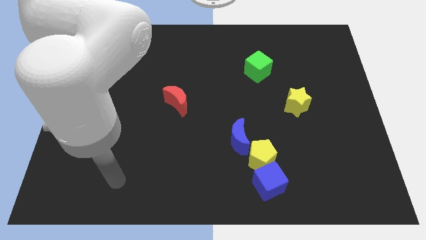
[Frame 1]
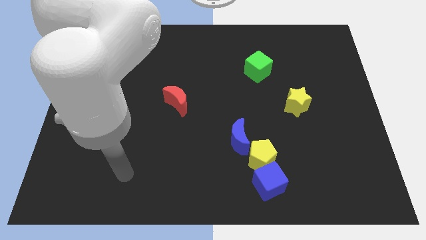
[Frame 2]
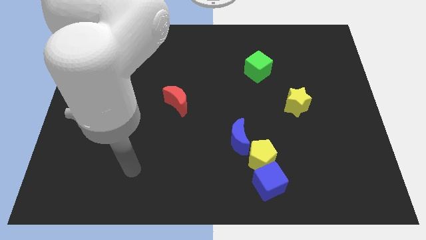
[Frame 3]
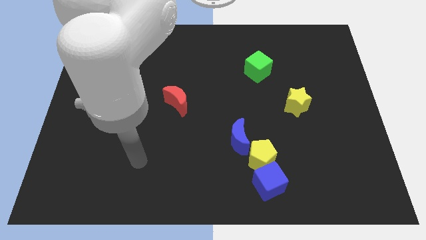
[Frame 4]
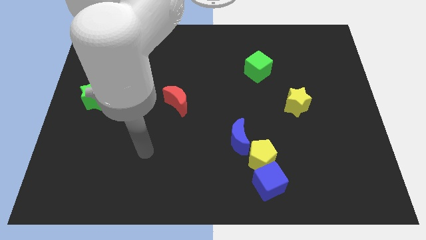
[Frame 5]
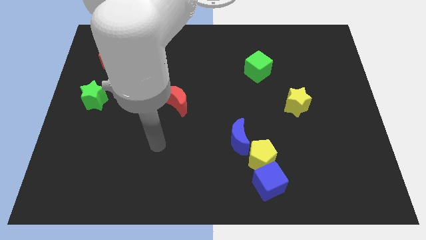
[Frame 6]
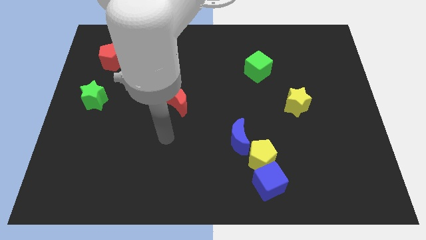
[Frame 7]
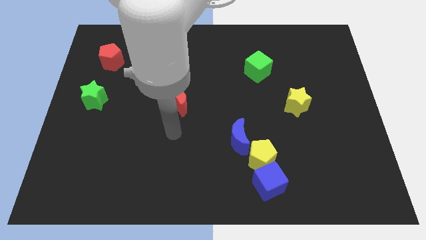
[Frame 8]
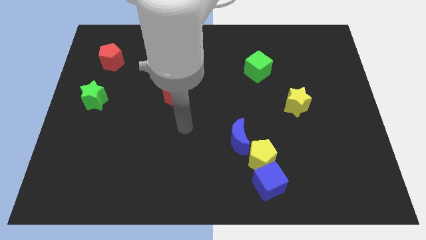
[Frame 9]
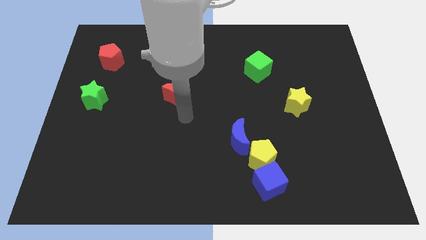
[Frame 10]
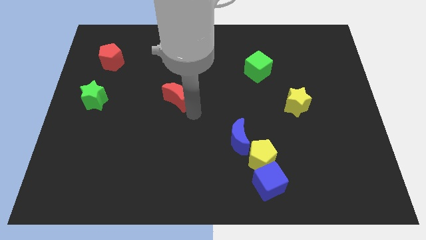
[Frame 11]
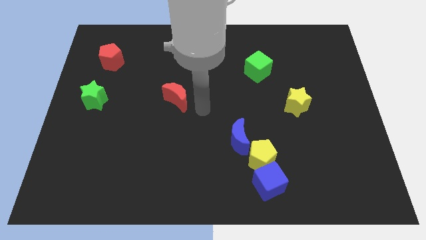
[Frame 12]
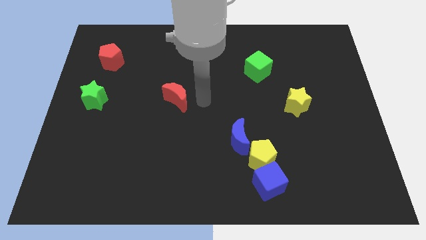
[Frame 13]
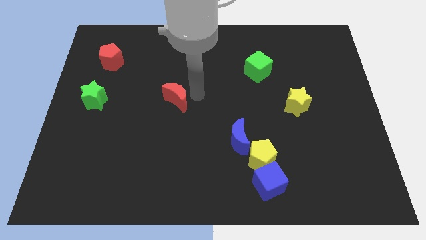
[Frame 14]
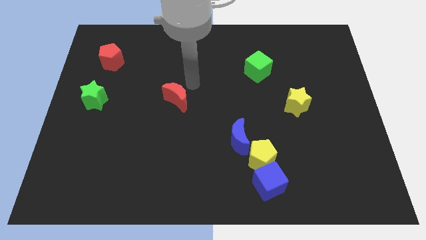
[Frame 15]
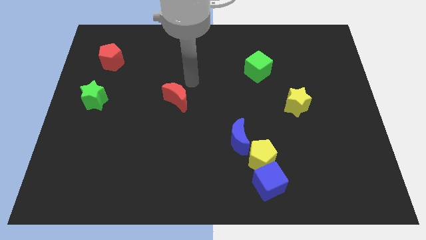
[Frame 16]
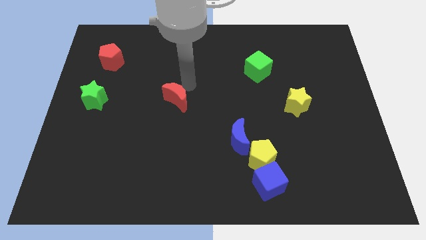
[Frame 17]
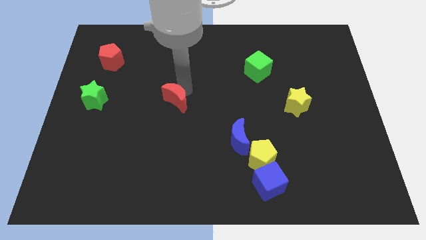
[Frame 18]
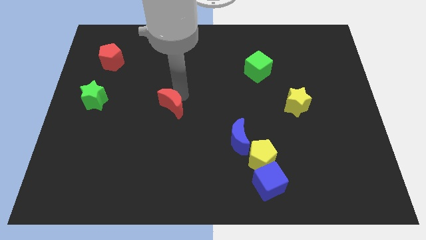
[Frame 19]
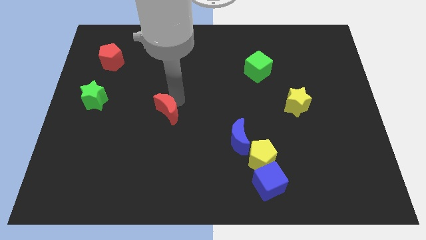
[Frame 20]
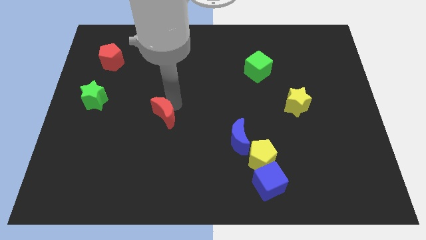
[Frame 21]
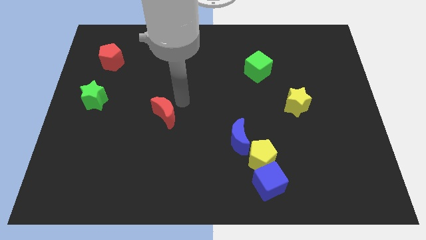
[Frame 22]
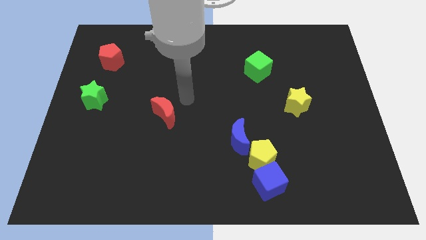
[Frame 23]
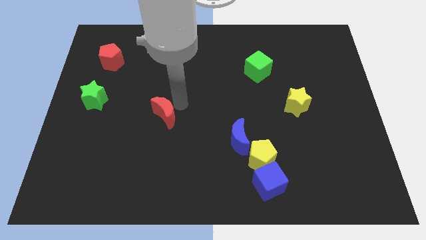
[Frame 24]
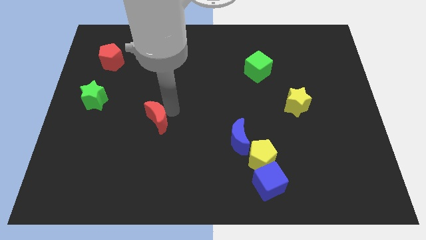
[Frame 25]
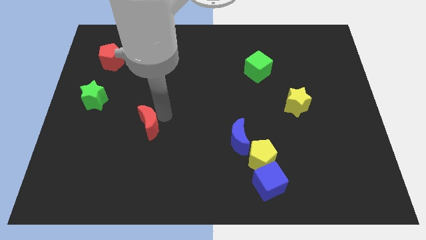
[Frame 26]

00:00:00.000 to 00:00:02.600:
push the red moon down and left a little

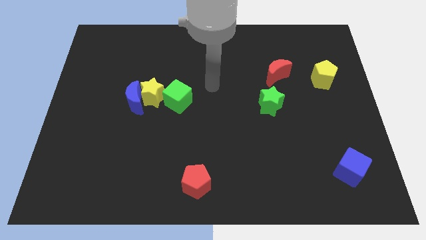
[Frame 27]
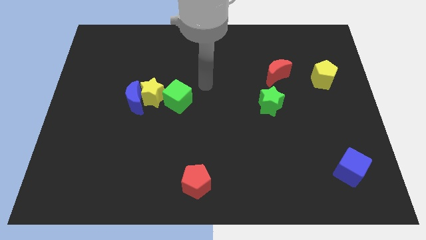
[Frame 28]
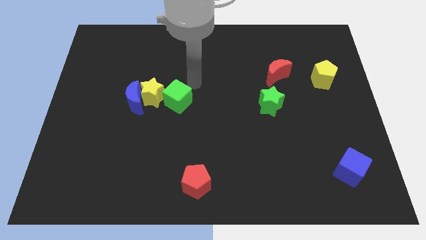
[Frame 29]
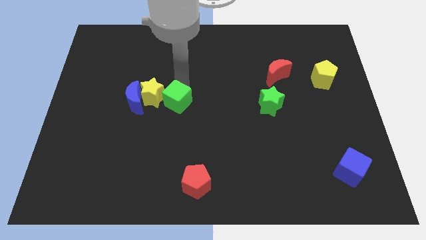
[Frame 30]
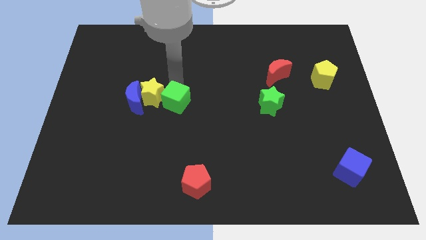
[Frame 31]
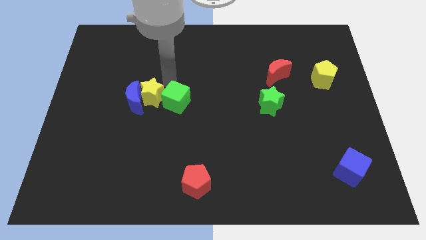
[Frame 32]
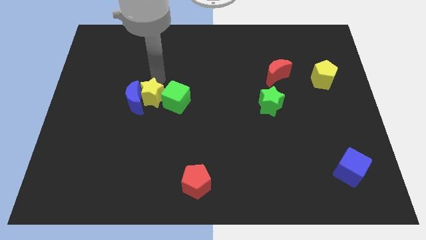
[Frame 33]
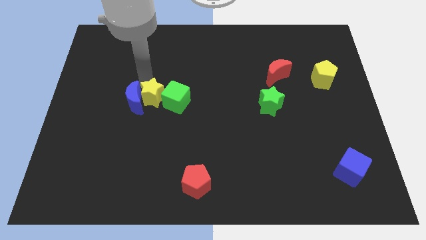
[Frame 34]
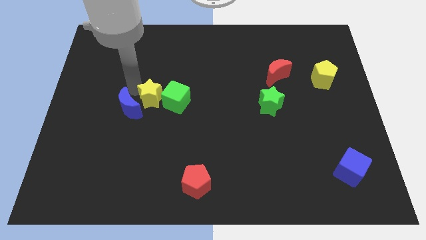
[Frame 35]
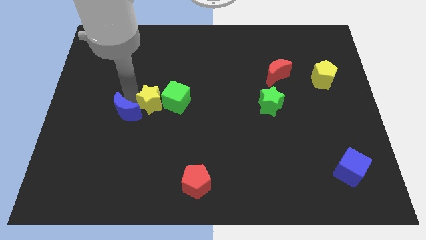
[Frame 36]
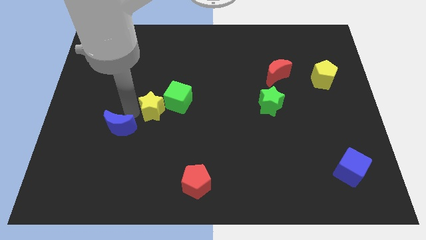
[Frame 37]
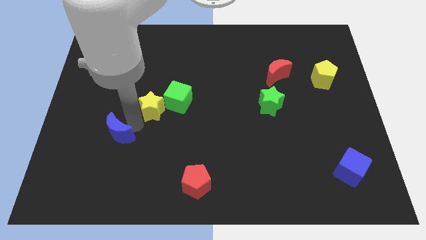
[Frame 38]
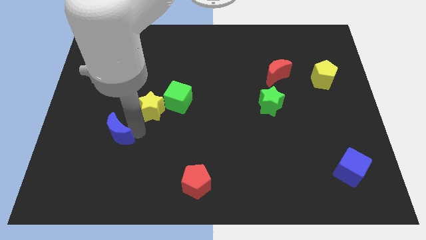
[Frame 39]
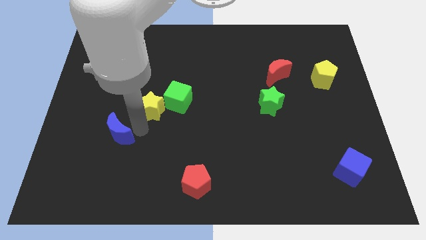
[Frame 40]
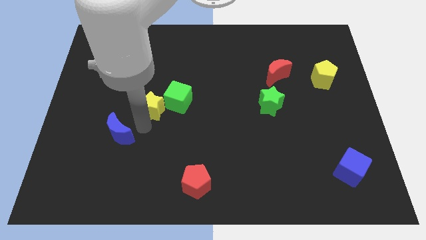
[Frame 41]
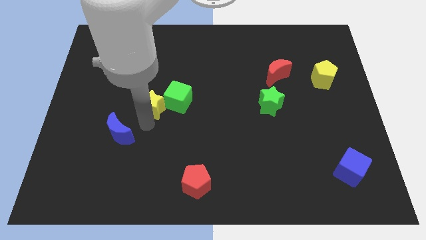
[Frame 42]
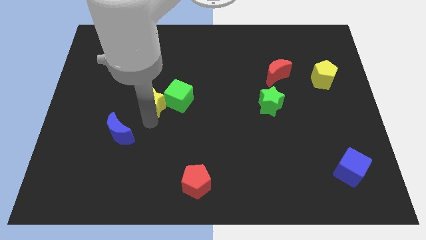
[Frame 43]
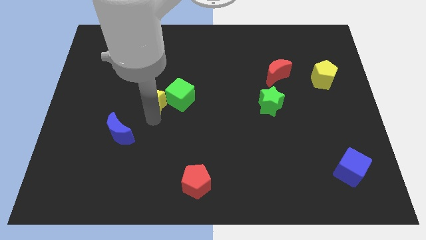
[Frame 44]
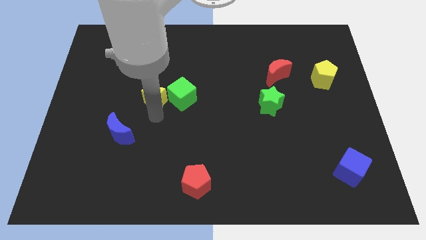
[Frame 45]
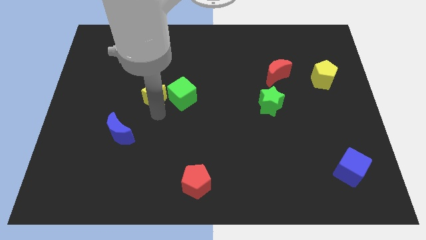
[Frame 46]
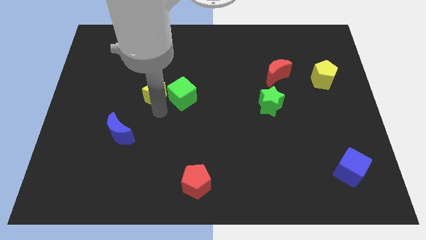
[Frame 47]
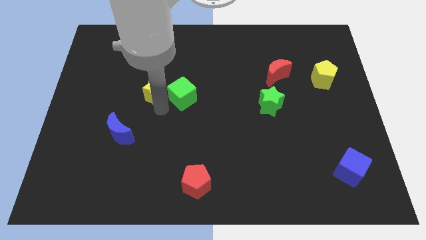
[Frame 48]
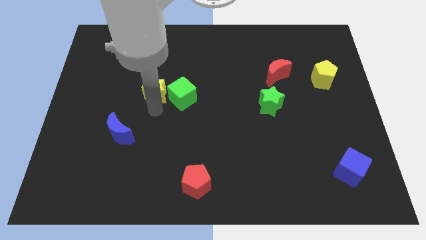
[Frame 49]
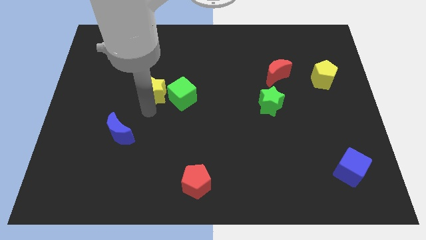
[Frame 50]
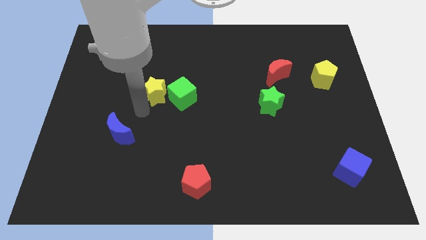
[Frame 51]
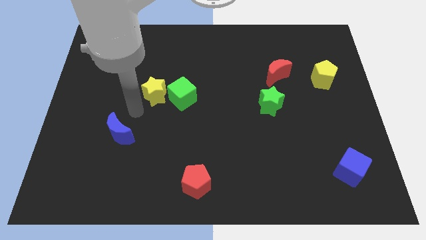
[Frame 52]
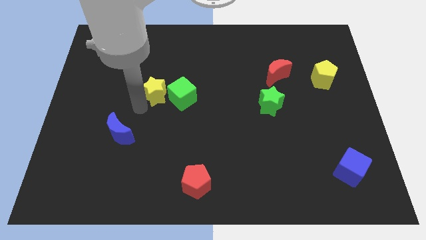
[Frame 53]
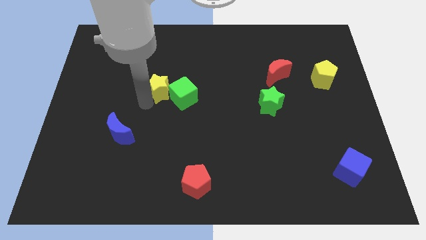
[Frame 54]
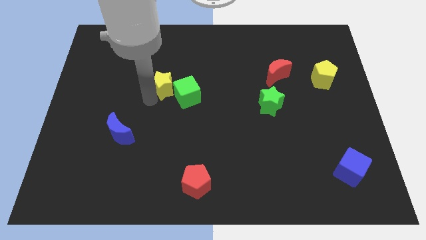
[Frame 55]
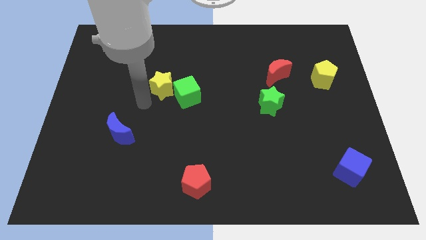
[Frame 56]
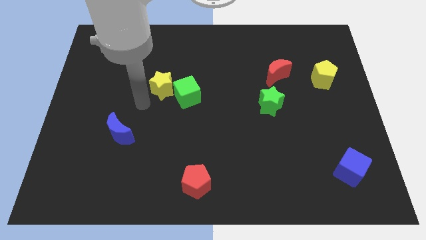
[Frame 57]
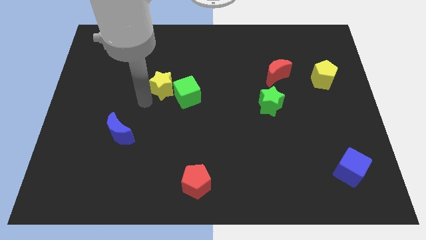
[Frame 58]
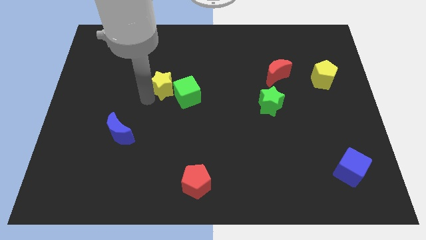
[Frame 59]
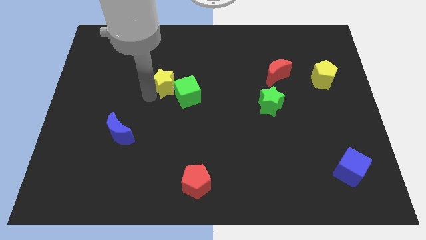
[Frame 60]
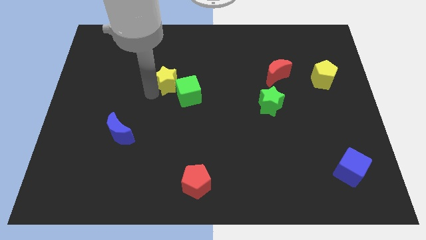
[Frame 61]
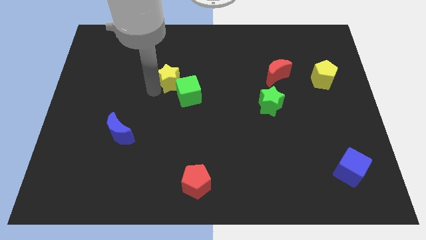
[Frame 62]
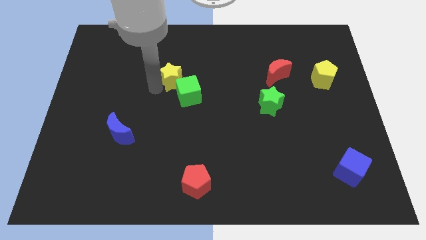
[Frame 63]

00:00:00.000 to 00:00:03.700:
push the yellow star a bit diagonally up and right

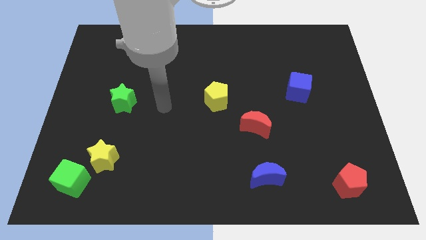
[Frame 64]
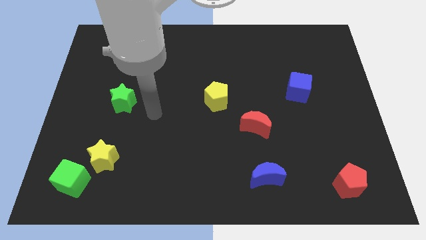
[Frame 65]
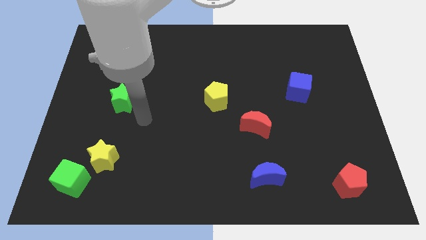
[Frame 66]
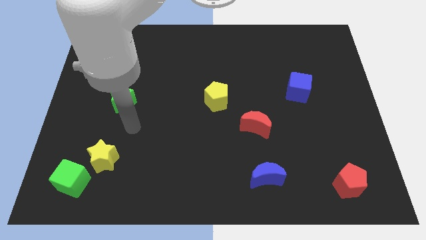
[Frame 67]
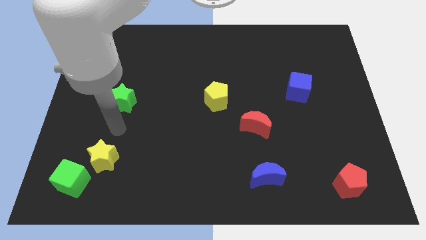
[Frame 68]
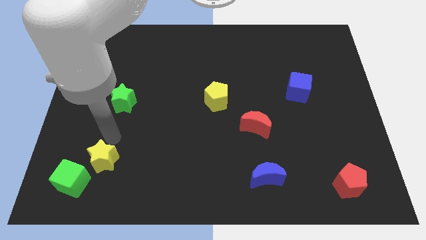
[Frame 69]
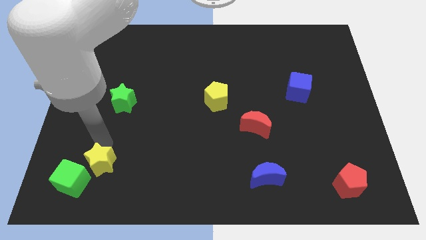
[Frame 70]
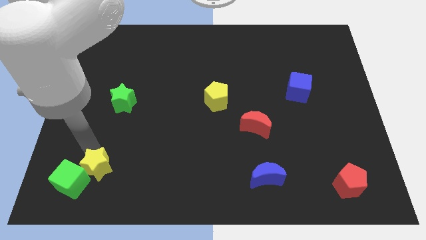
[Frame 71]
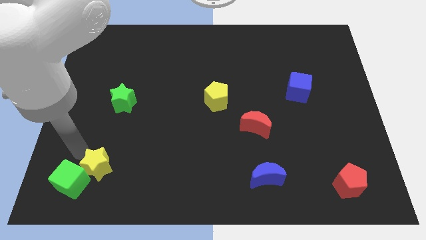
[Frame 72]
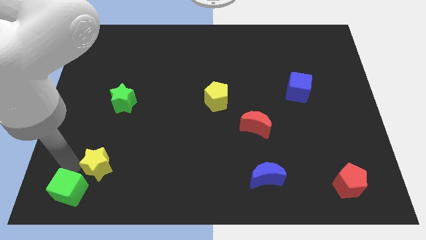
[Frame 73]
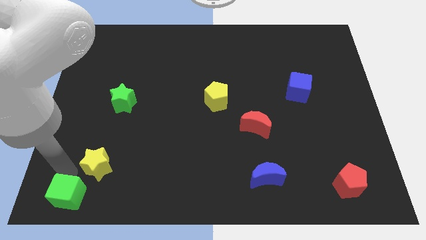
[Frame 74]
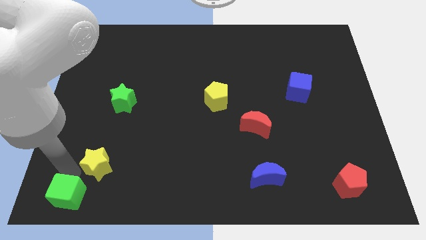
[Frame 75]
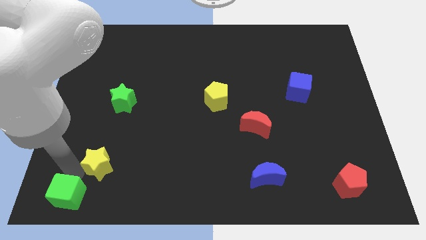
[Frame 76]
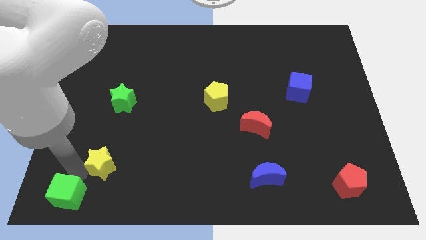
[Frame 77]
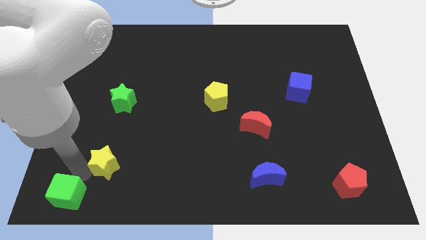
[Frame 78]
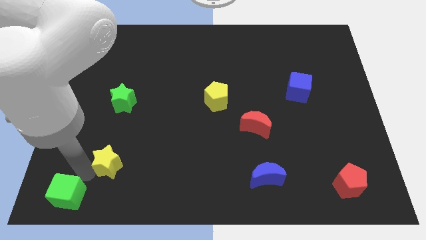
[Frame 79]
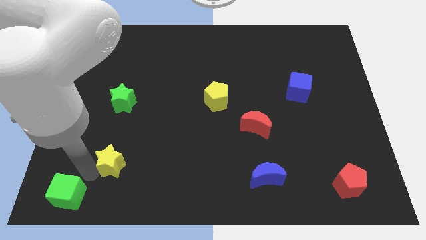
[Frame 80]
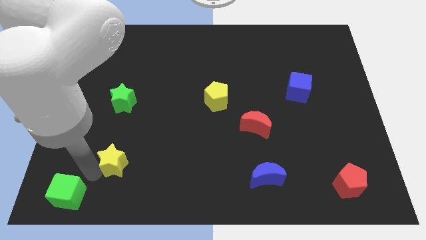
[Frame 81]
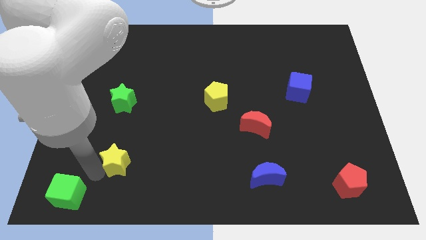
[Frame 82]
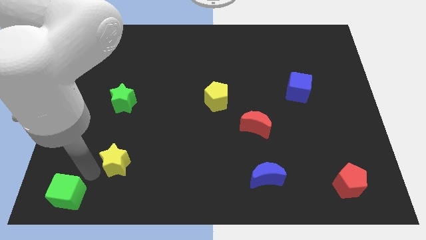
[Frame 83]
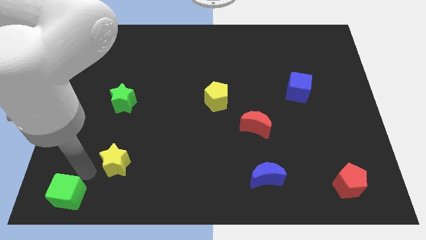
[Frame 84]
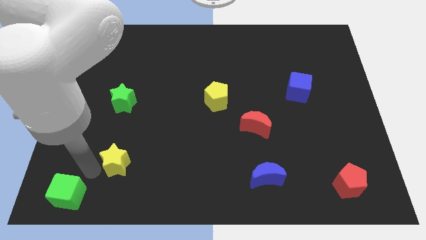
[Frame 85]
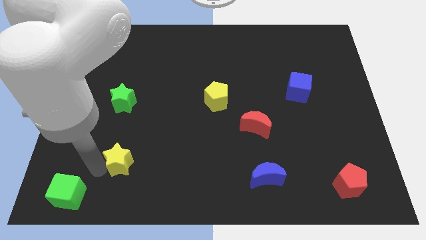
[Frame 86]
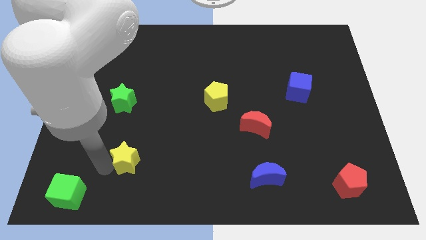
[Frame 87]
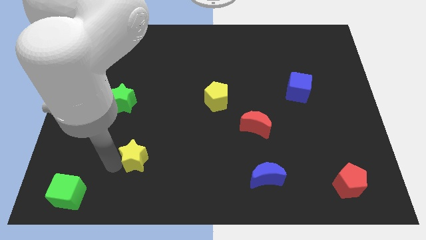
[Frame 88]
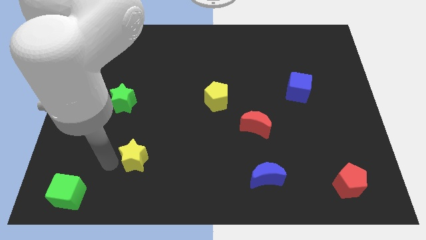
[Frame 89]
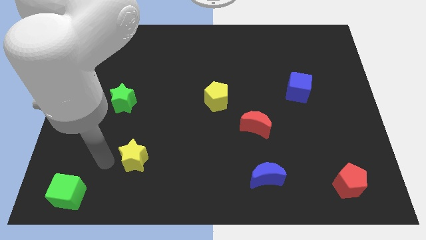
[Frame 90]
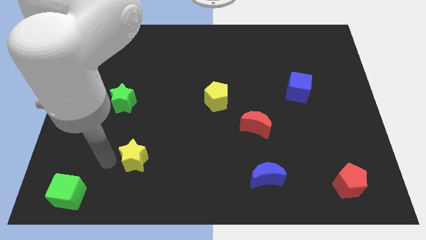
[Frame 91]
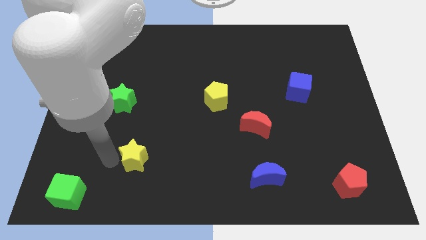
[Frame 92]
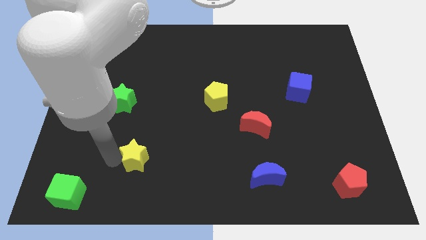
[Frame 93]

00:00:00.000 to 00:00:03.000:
slightly slide the yellow star right
